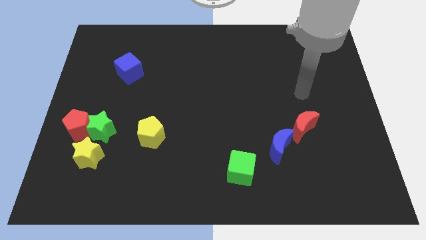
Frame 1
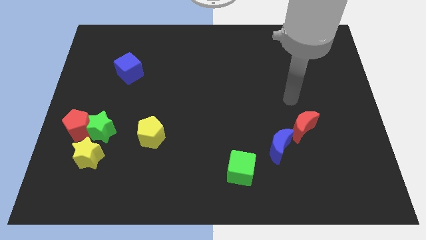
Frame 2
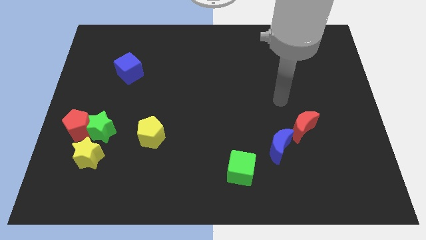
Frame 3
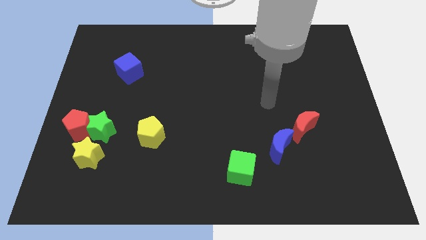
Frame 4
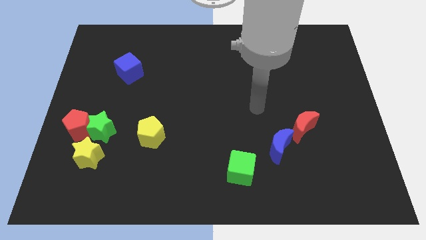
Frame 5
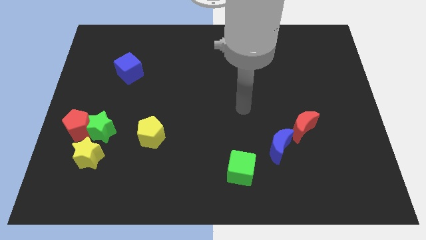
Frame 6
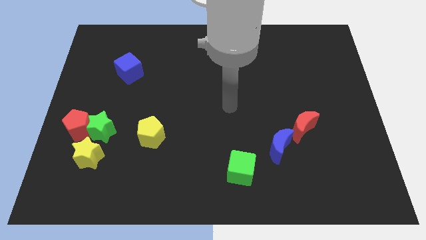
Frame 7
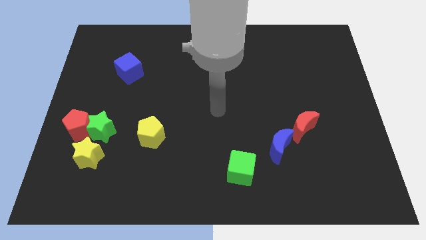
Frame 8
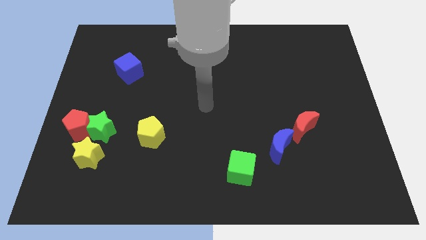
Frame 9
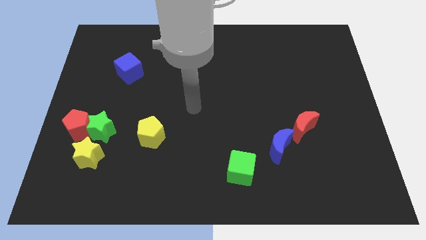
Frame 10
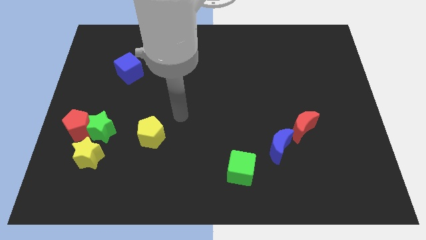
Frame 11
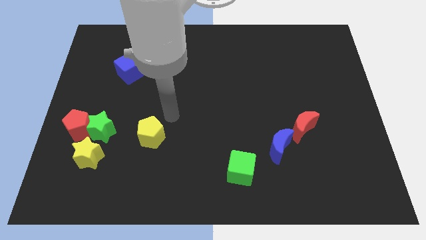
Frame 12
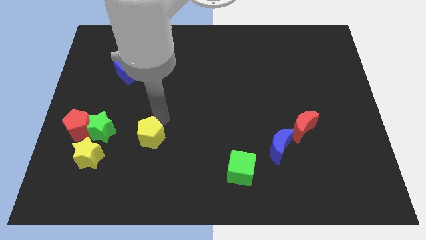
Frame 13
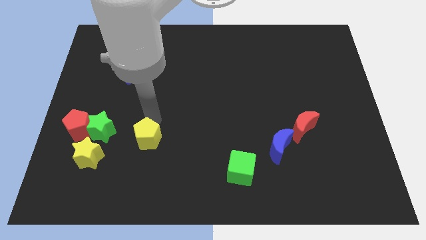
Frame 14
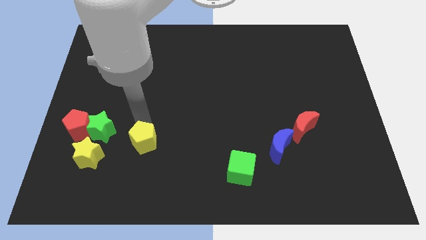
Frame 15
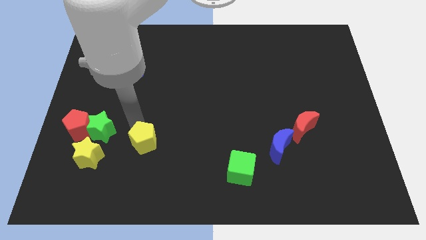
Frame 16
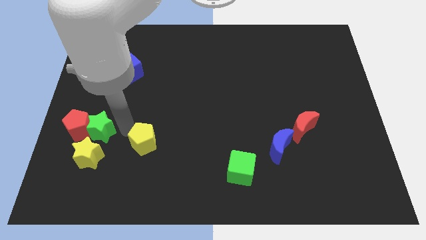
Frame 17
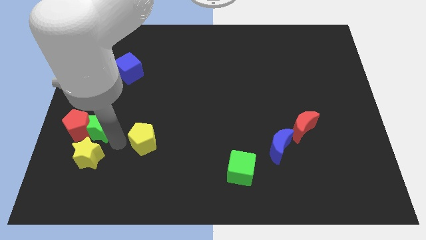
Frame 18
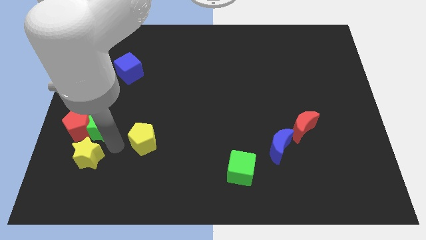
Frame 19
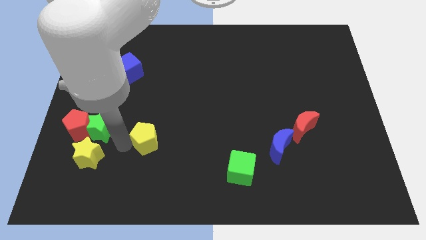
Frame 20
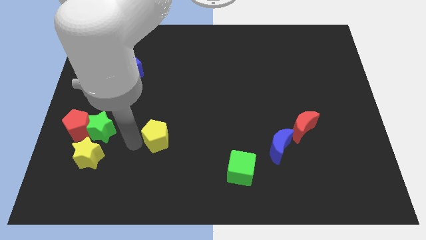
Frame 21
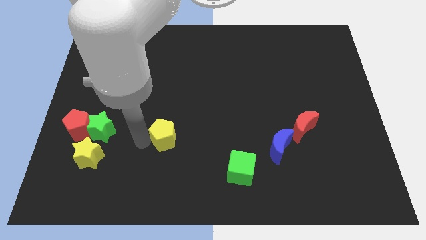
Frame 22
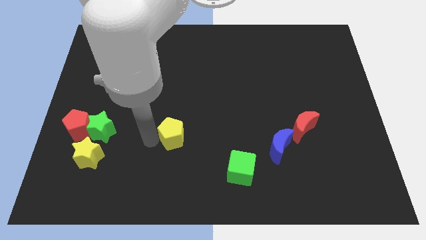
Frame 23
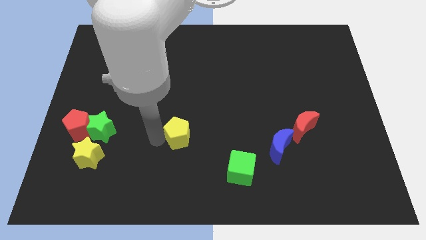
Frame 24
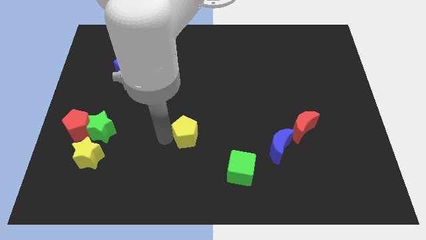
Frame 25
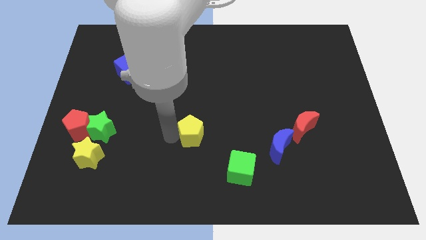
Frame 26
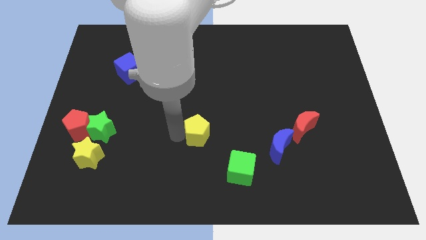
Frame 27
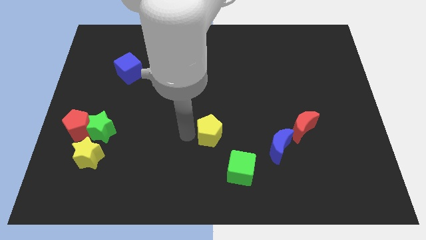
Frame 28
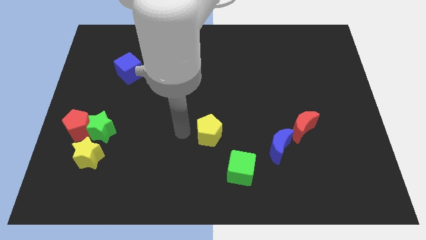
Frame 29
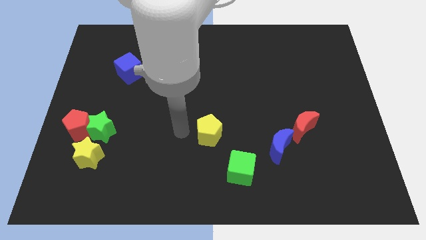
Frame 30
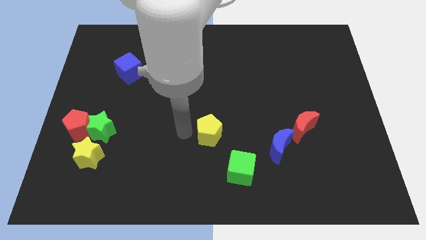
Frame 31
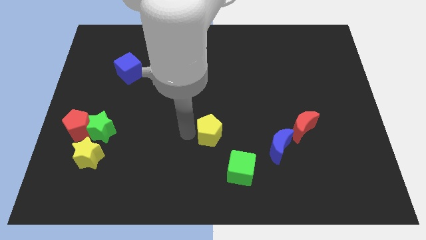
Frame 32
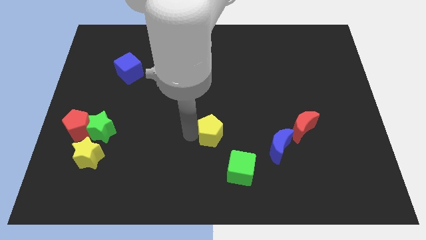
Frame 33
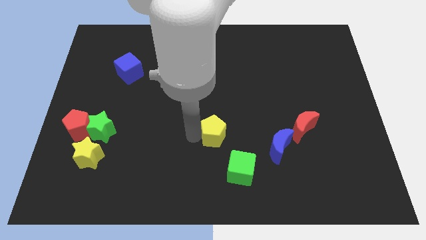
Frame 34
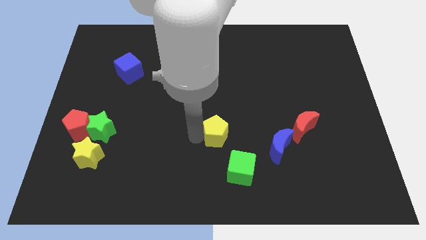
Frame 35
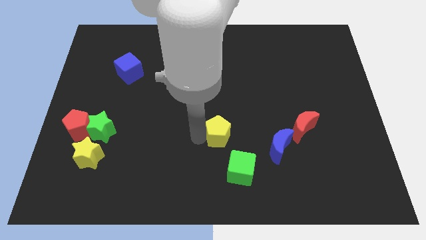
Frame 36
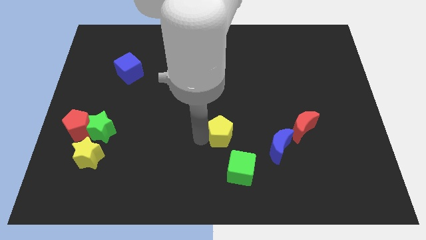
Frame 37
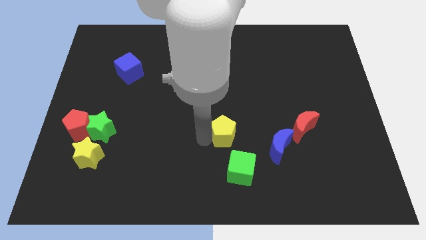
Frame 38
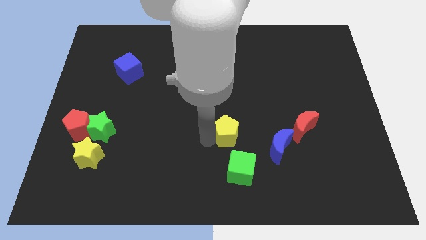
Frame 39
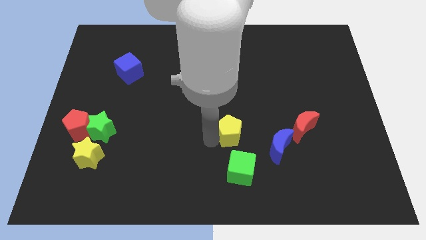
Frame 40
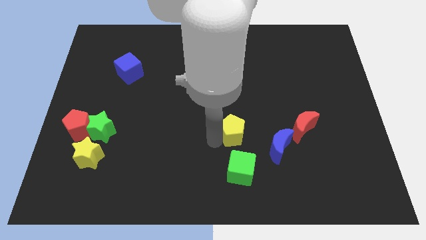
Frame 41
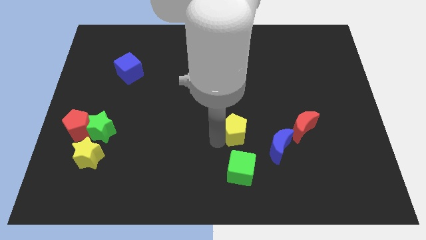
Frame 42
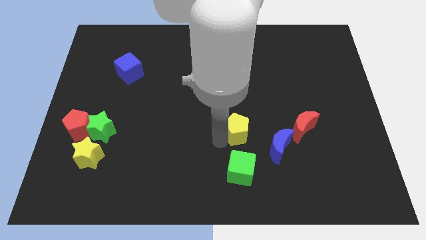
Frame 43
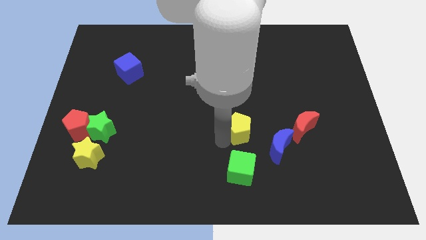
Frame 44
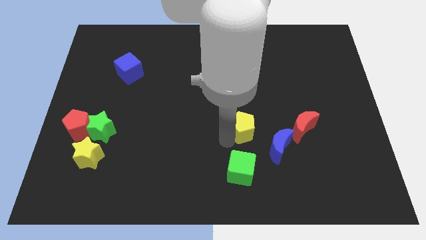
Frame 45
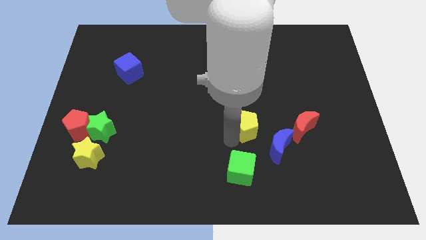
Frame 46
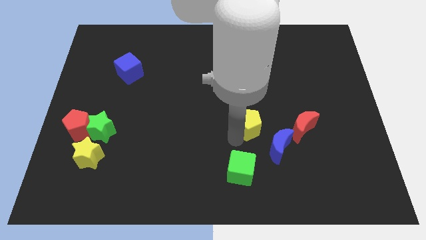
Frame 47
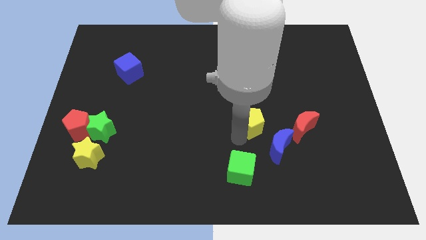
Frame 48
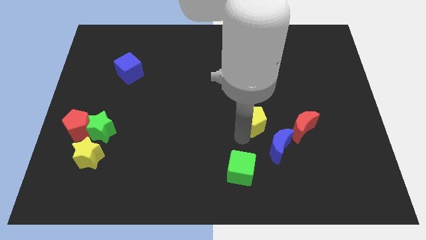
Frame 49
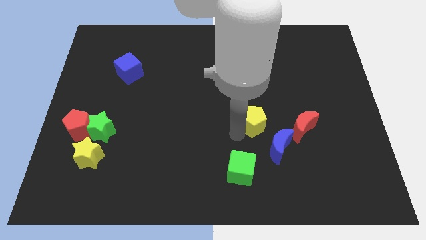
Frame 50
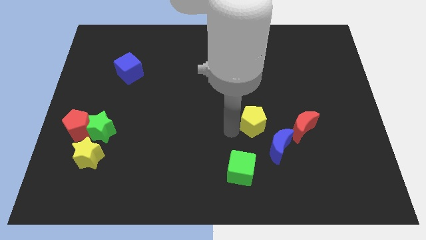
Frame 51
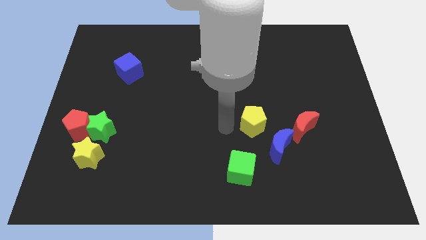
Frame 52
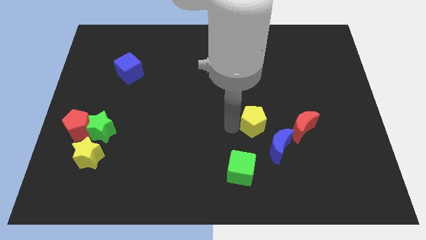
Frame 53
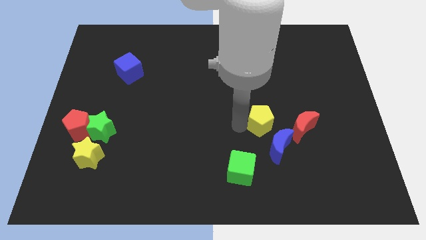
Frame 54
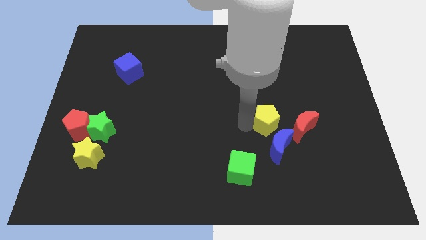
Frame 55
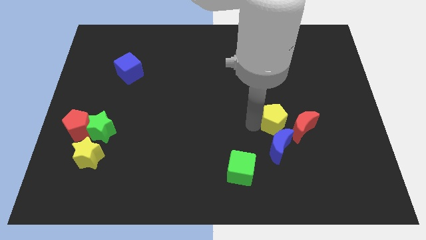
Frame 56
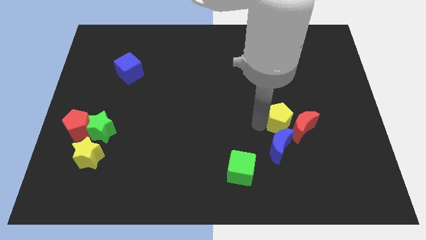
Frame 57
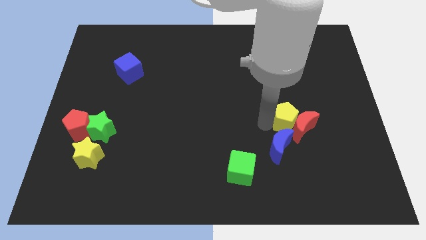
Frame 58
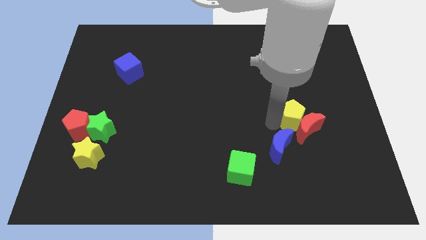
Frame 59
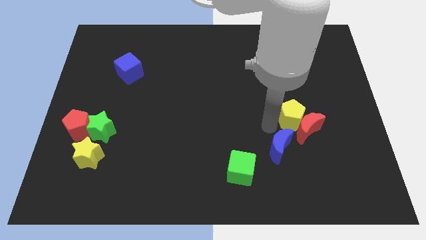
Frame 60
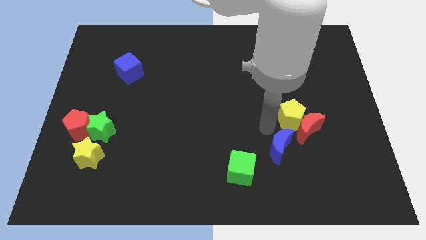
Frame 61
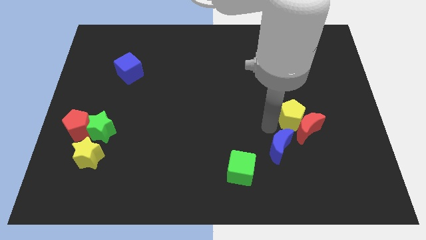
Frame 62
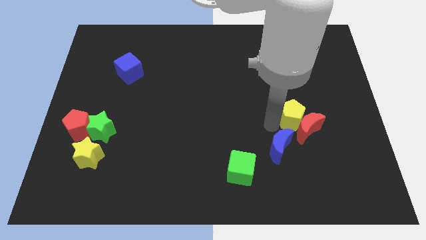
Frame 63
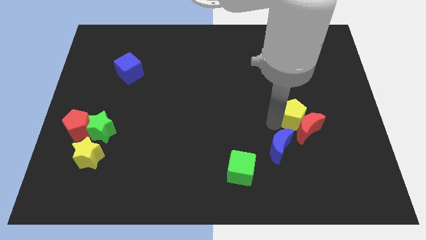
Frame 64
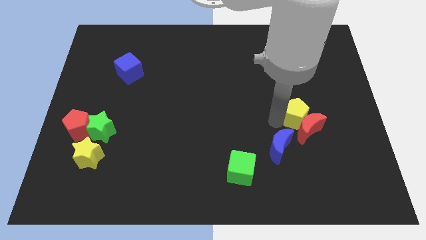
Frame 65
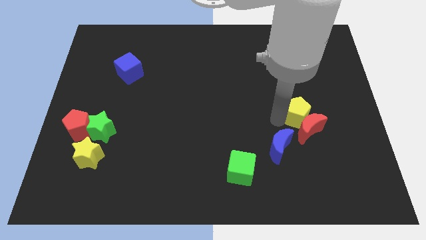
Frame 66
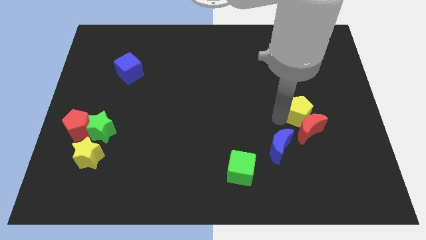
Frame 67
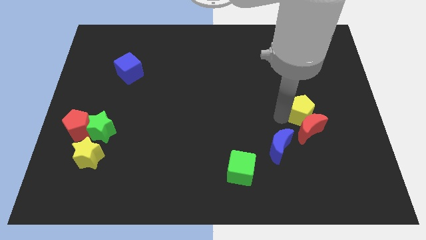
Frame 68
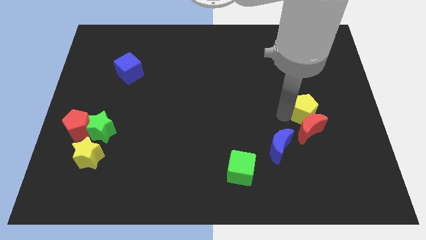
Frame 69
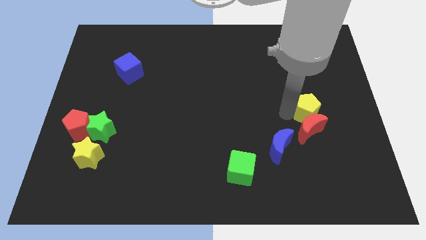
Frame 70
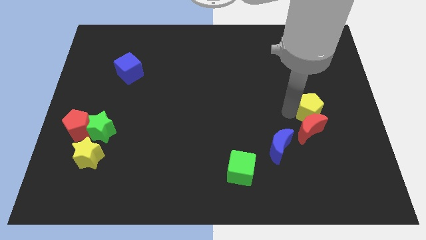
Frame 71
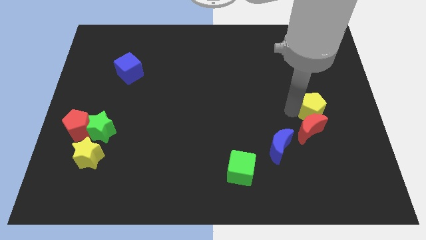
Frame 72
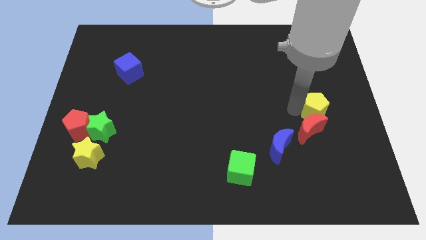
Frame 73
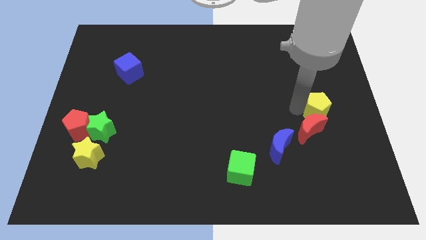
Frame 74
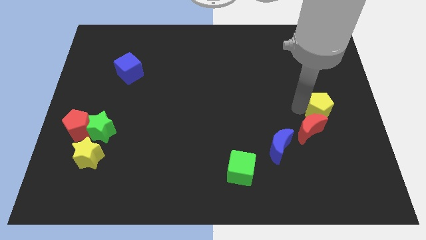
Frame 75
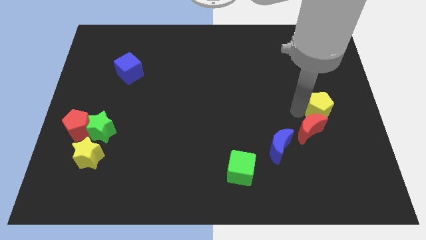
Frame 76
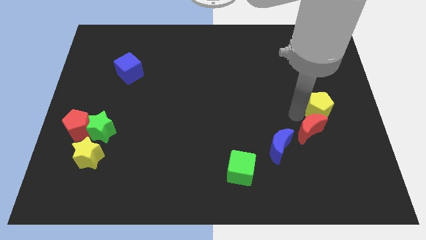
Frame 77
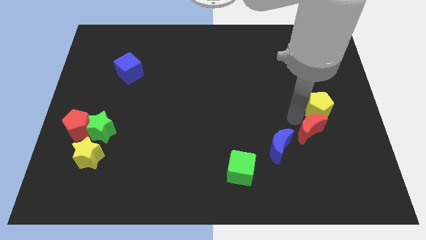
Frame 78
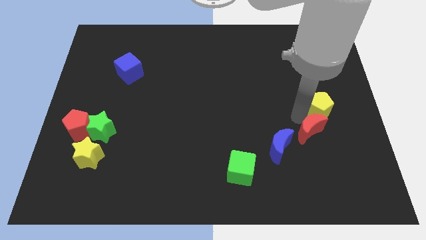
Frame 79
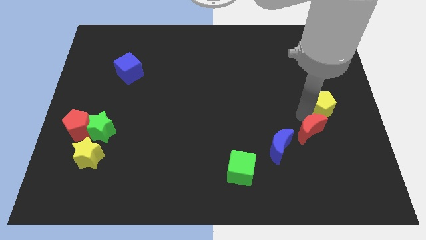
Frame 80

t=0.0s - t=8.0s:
move the yellow pentagon to the right side
